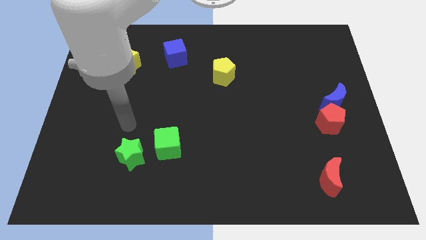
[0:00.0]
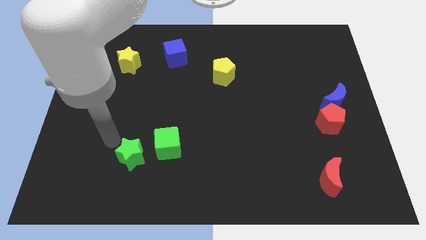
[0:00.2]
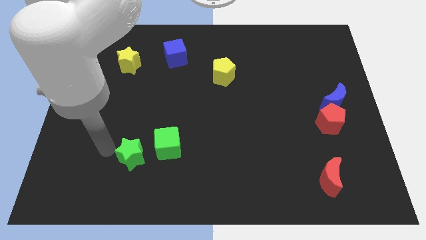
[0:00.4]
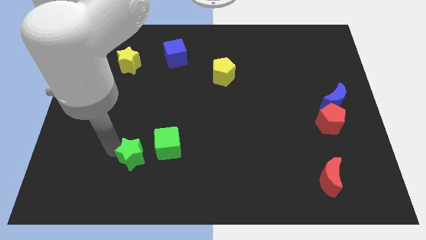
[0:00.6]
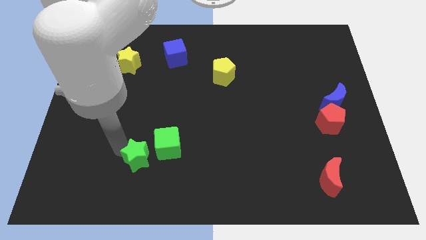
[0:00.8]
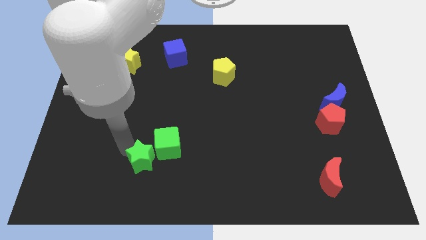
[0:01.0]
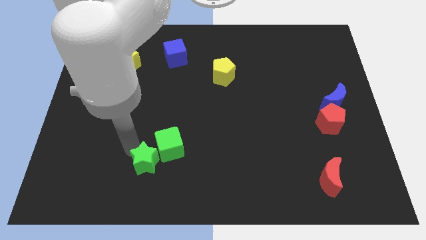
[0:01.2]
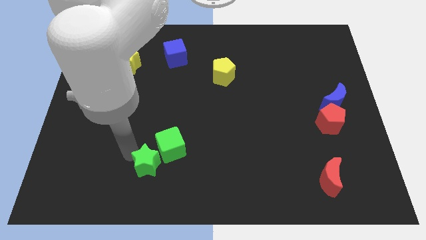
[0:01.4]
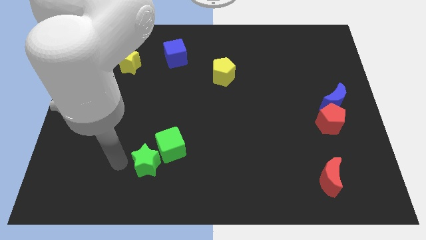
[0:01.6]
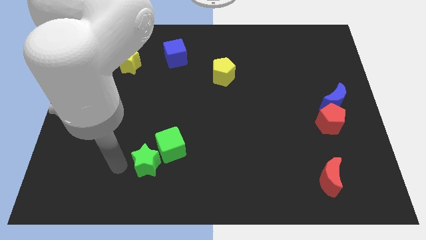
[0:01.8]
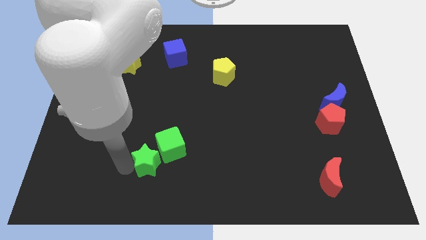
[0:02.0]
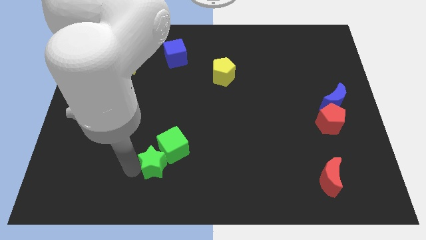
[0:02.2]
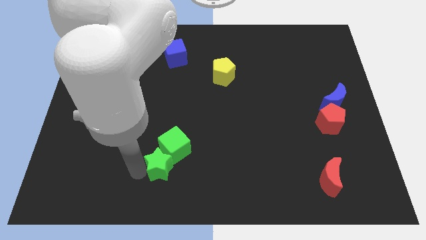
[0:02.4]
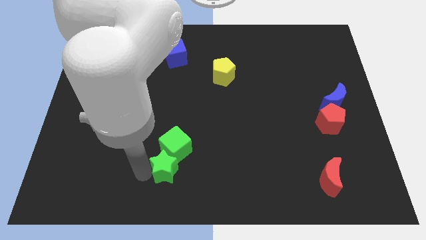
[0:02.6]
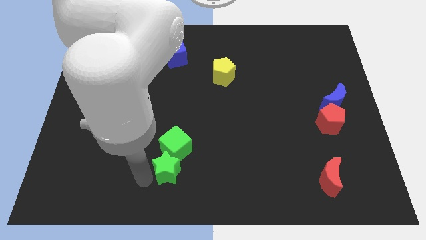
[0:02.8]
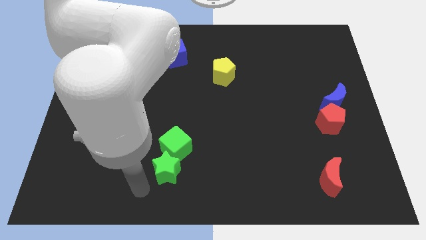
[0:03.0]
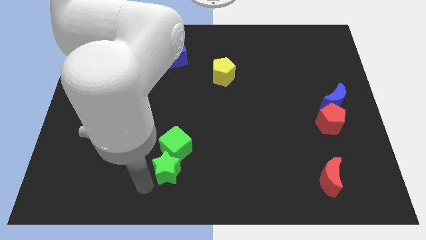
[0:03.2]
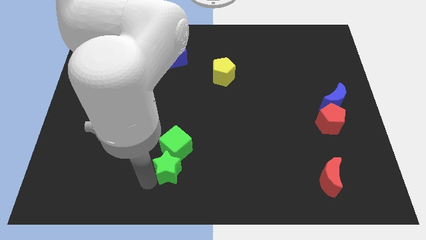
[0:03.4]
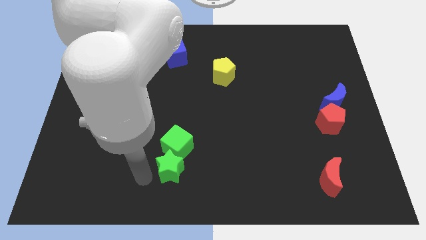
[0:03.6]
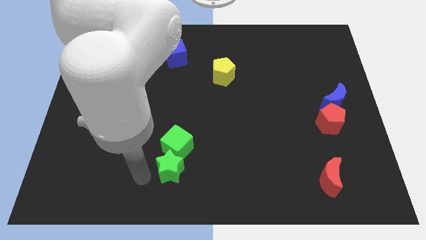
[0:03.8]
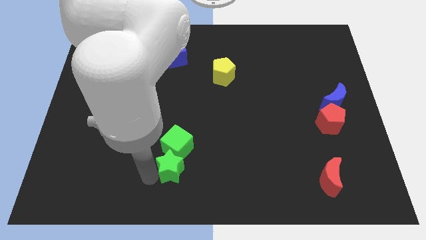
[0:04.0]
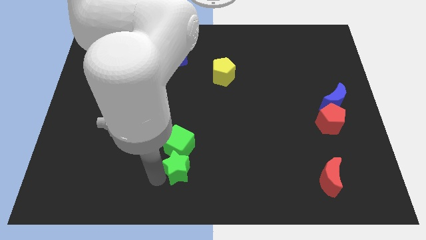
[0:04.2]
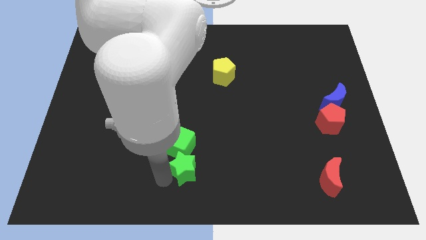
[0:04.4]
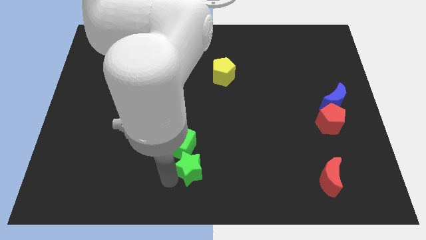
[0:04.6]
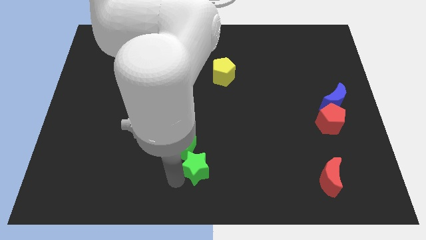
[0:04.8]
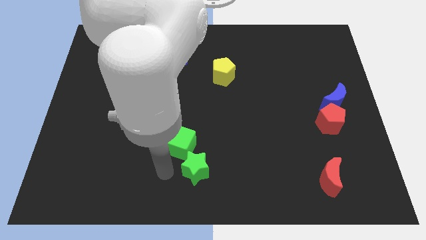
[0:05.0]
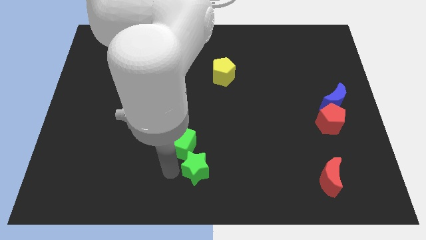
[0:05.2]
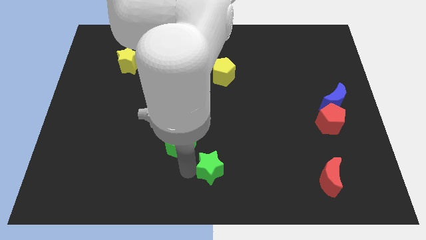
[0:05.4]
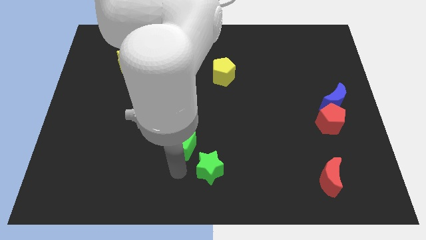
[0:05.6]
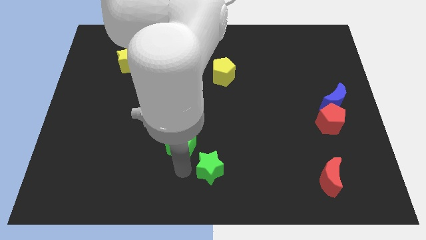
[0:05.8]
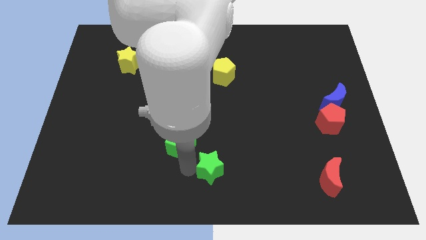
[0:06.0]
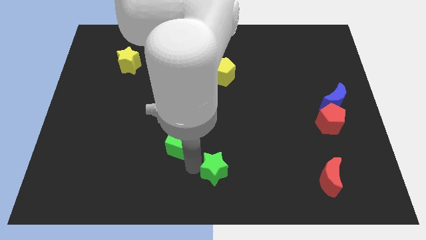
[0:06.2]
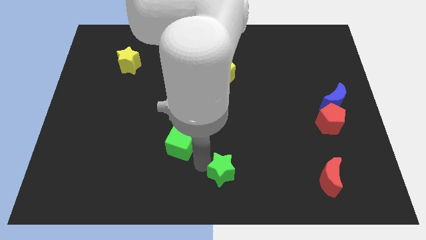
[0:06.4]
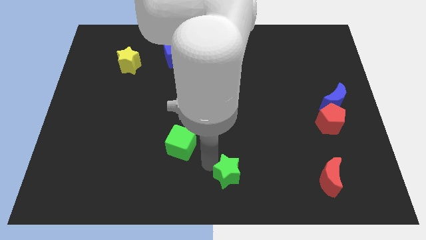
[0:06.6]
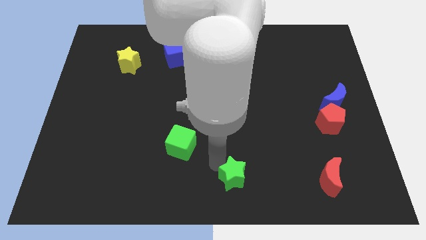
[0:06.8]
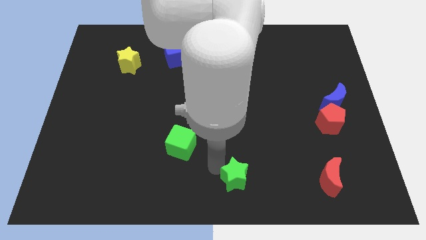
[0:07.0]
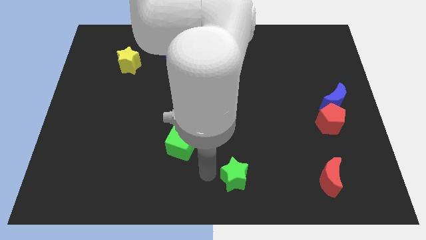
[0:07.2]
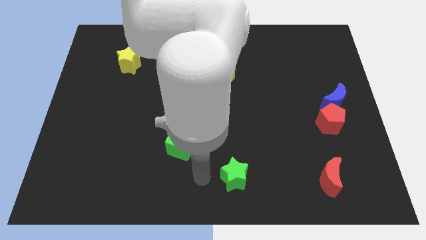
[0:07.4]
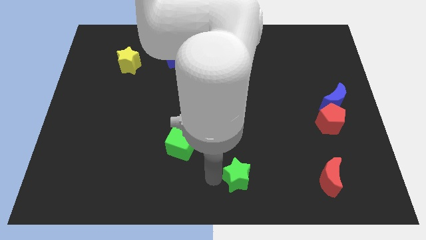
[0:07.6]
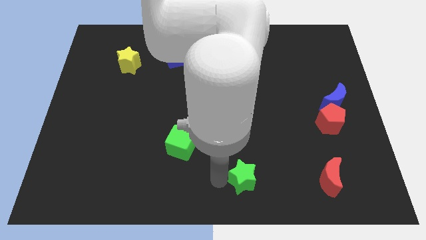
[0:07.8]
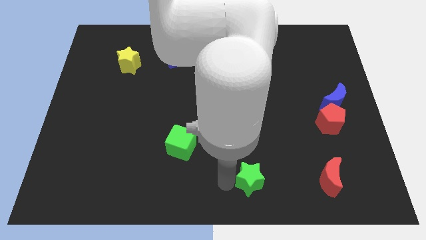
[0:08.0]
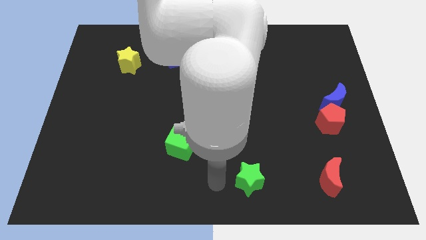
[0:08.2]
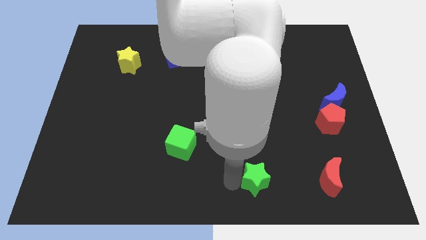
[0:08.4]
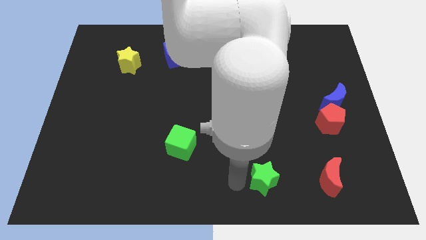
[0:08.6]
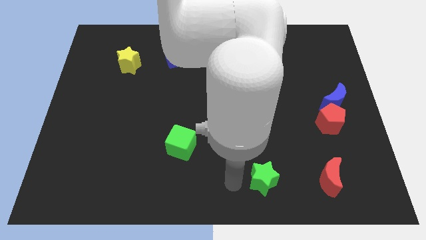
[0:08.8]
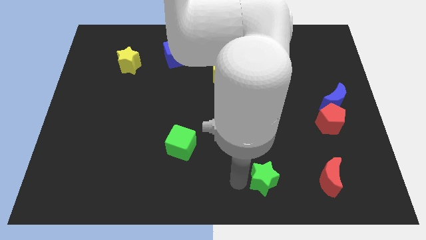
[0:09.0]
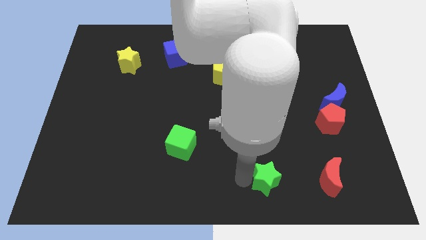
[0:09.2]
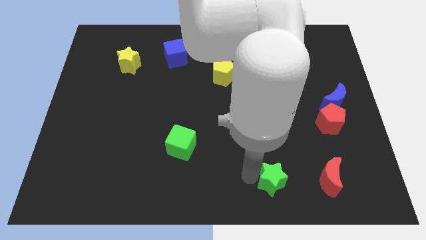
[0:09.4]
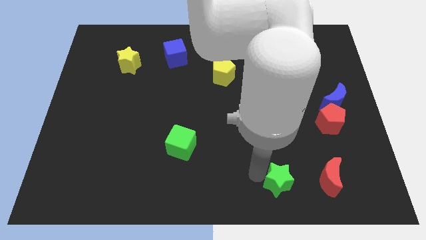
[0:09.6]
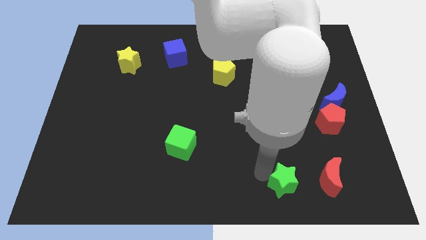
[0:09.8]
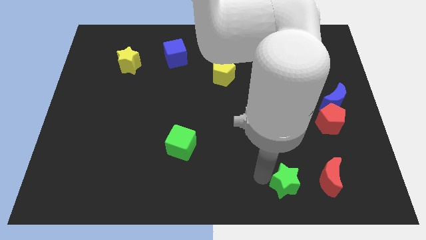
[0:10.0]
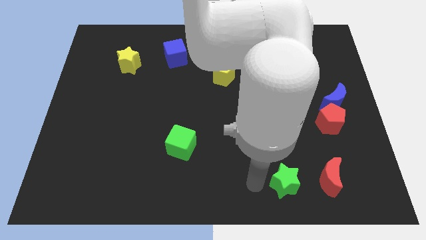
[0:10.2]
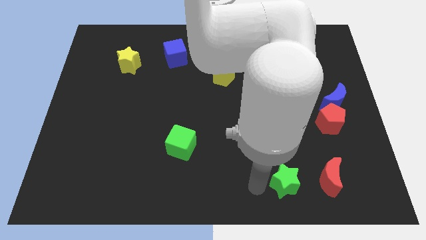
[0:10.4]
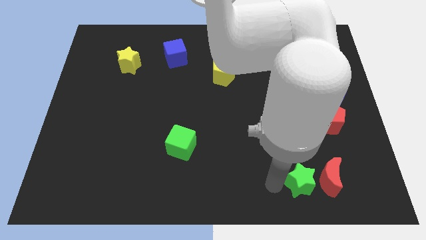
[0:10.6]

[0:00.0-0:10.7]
move the green star close to the red moon

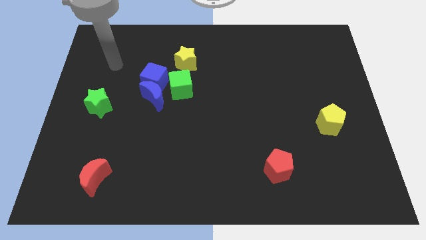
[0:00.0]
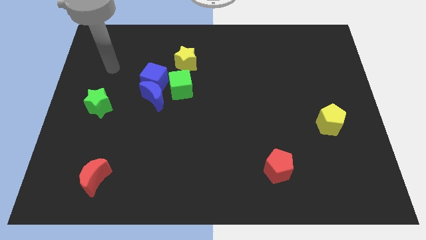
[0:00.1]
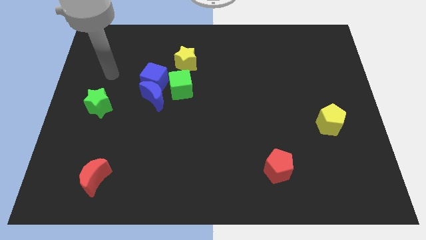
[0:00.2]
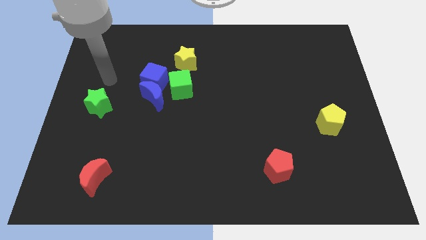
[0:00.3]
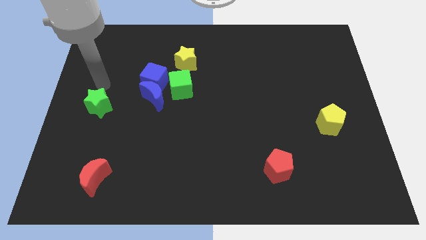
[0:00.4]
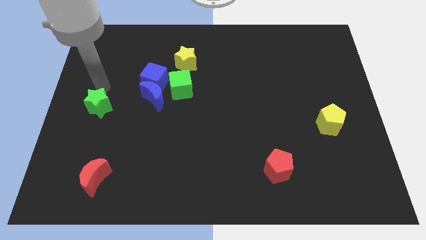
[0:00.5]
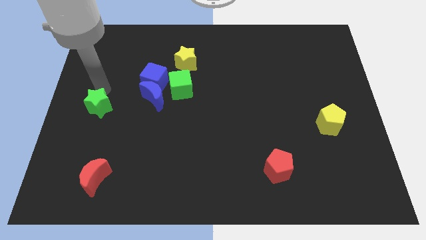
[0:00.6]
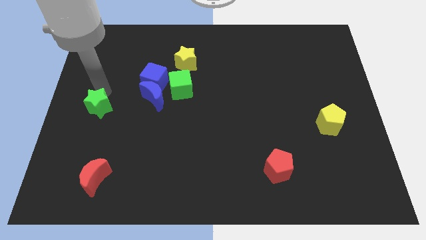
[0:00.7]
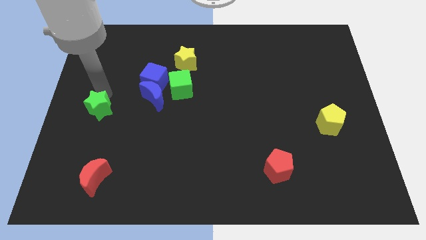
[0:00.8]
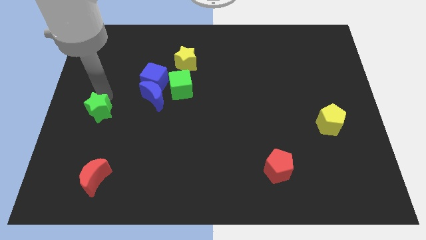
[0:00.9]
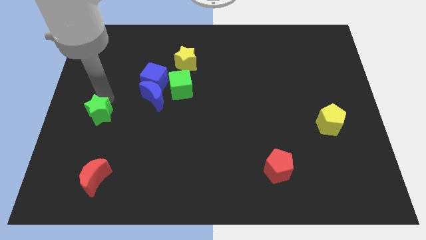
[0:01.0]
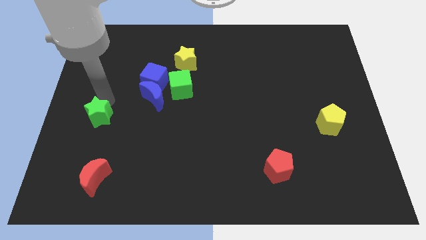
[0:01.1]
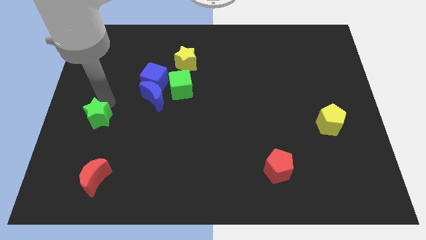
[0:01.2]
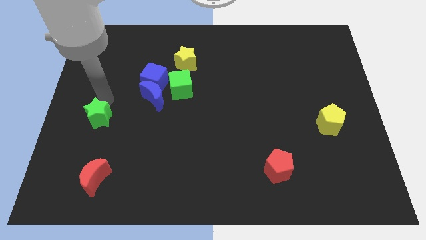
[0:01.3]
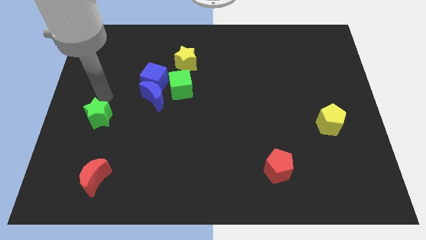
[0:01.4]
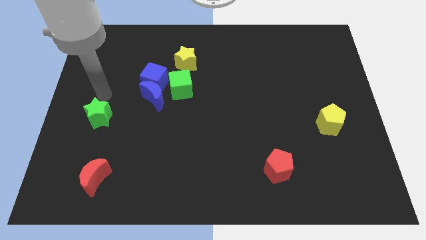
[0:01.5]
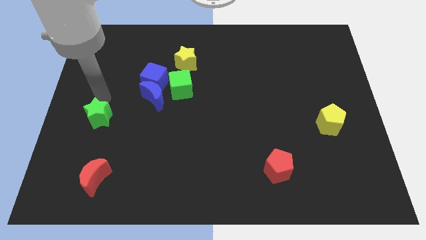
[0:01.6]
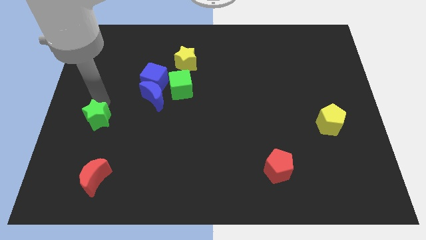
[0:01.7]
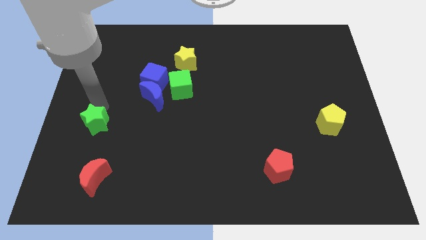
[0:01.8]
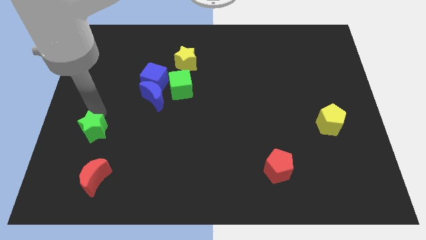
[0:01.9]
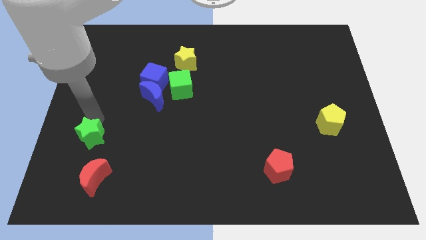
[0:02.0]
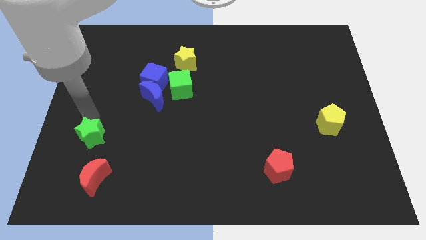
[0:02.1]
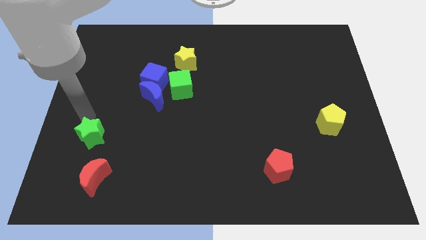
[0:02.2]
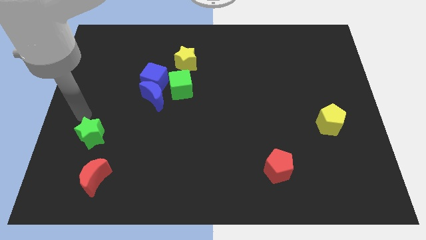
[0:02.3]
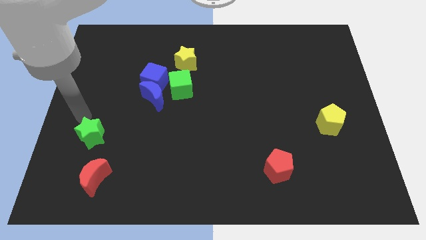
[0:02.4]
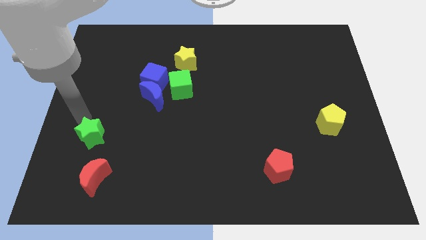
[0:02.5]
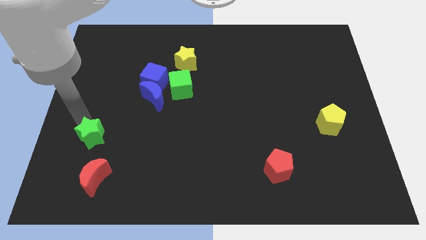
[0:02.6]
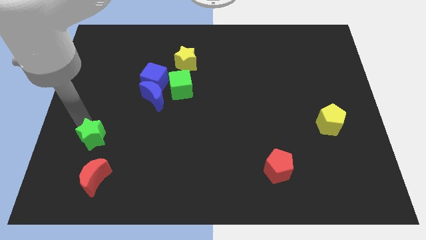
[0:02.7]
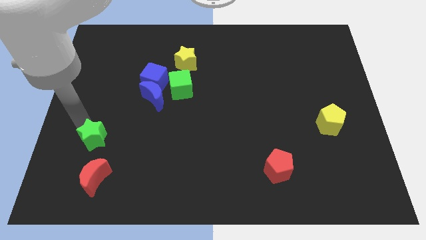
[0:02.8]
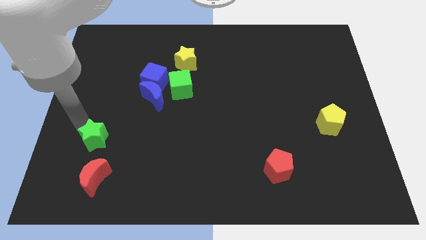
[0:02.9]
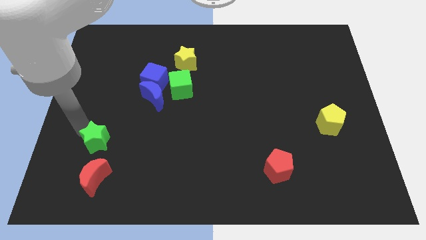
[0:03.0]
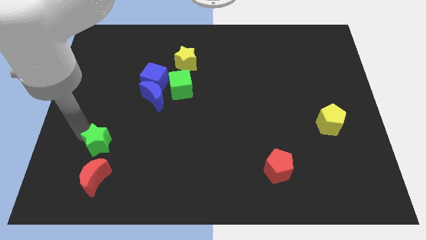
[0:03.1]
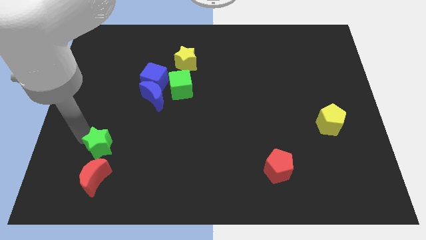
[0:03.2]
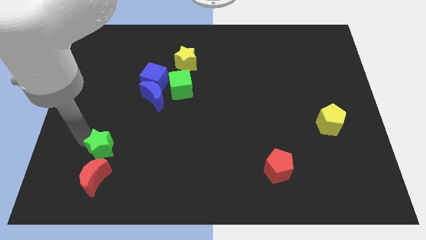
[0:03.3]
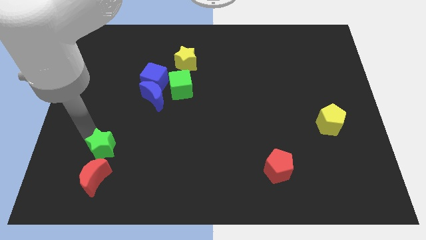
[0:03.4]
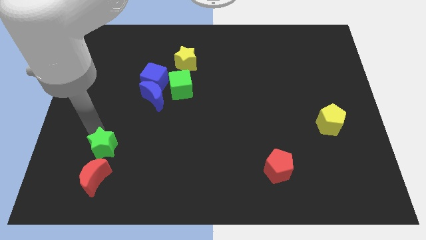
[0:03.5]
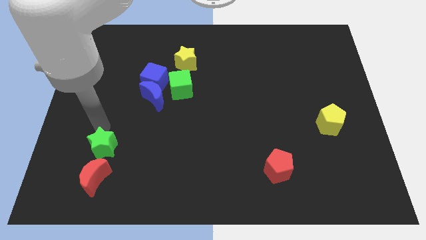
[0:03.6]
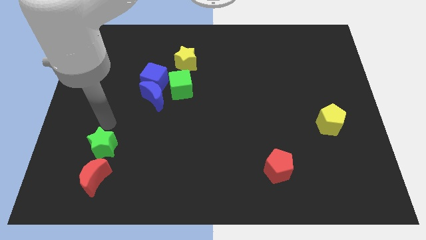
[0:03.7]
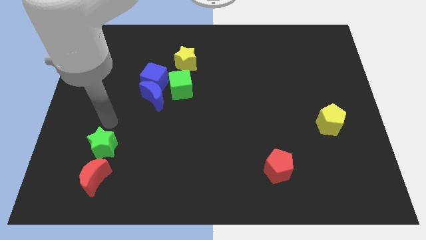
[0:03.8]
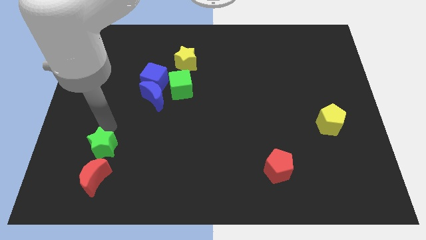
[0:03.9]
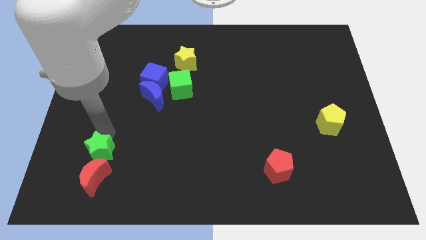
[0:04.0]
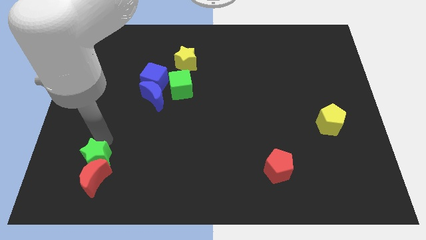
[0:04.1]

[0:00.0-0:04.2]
slide the green star next to the red moon
